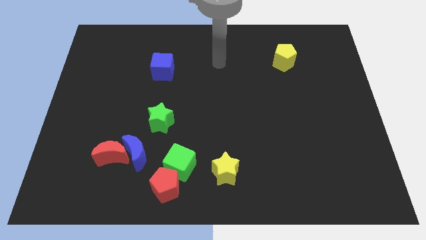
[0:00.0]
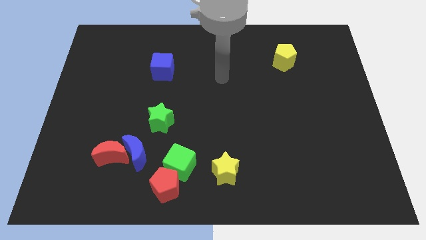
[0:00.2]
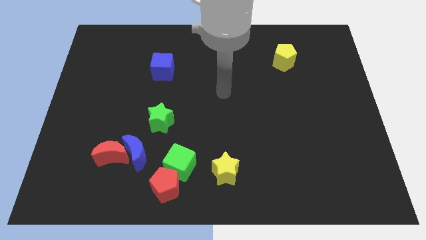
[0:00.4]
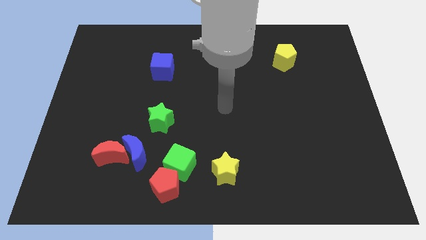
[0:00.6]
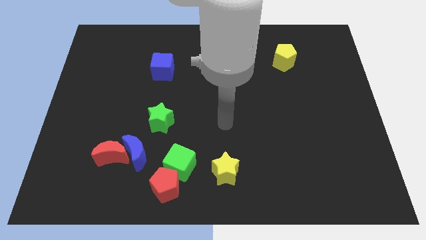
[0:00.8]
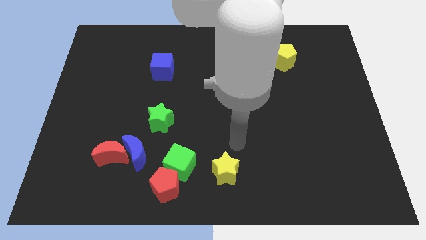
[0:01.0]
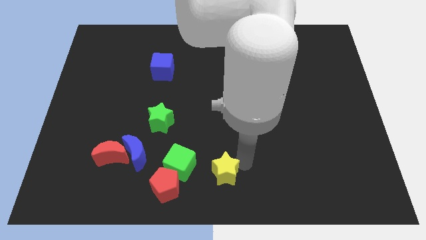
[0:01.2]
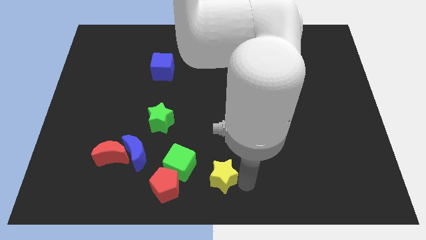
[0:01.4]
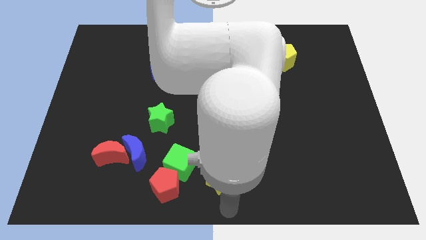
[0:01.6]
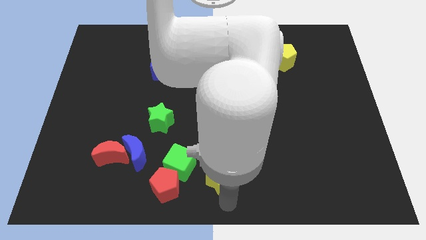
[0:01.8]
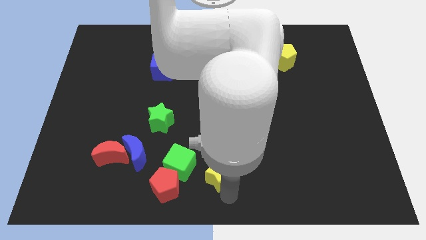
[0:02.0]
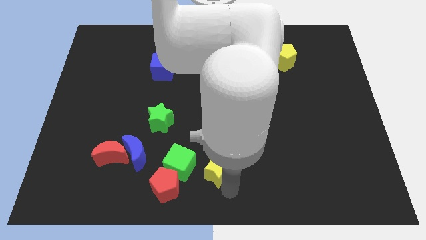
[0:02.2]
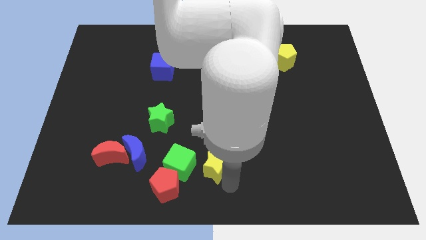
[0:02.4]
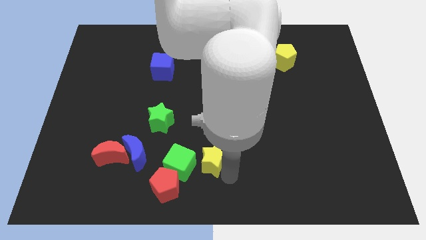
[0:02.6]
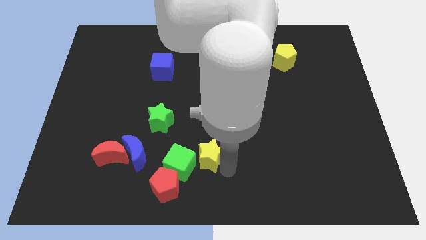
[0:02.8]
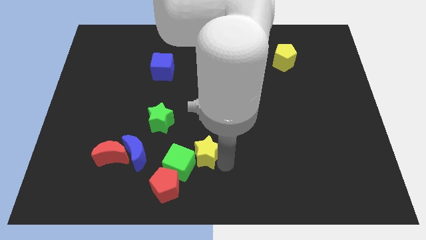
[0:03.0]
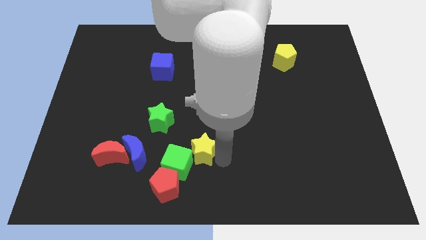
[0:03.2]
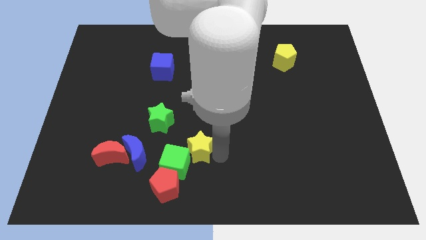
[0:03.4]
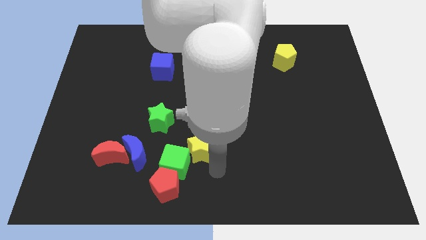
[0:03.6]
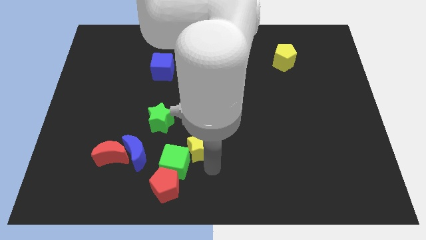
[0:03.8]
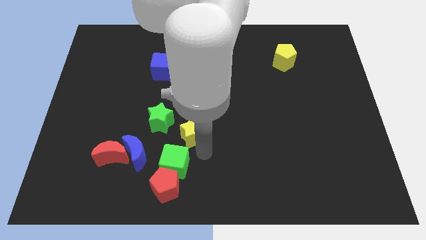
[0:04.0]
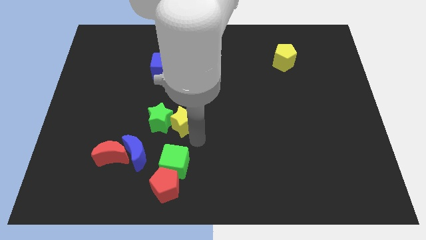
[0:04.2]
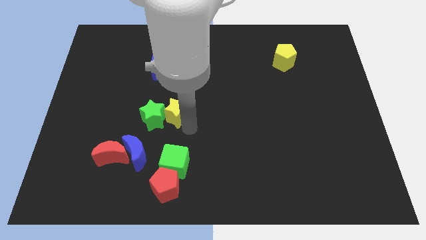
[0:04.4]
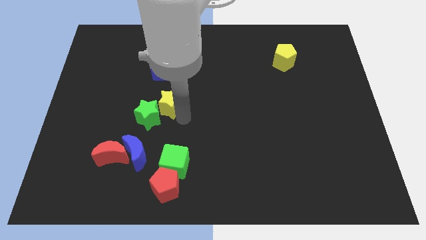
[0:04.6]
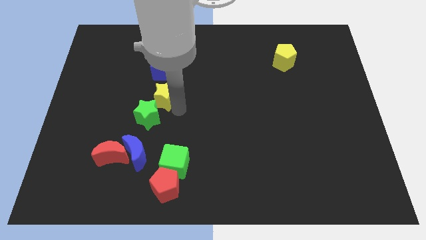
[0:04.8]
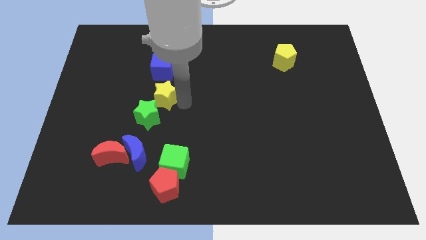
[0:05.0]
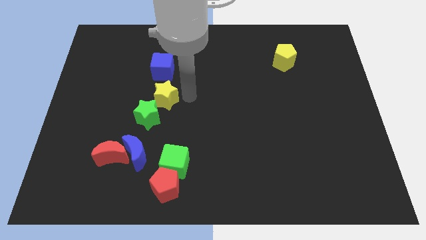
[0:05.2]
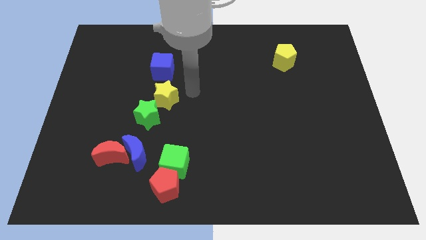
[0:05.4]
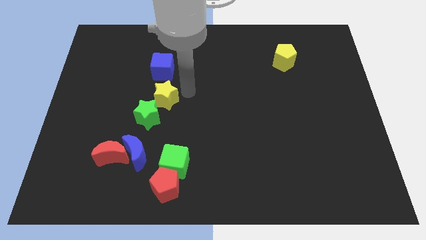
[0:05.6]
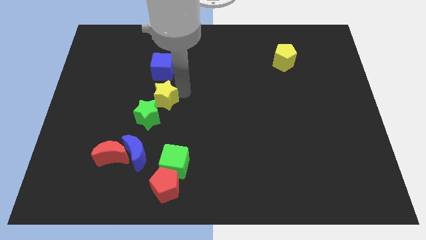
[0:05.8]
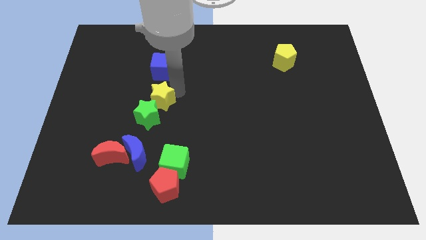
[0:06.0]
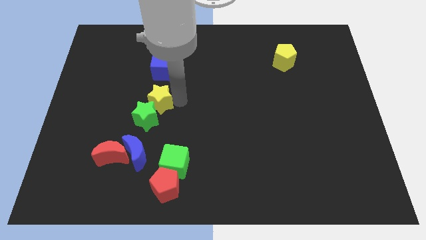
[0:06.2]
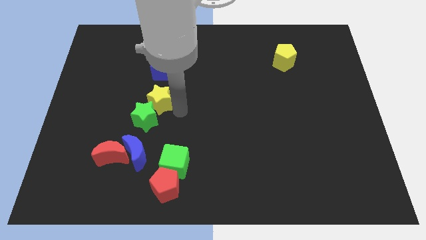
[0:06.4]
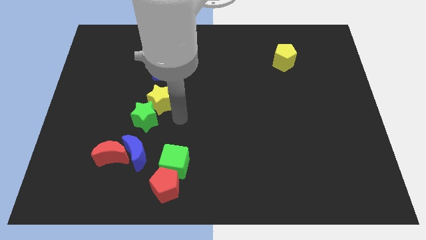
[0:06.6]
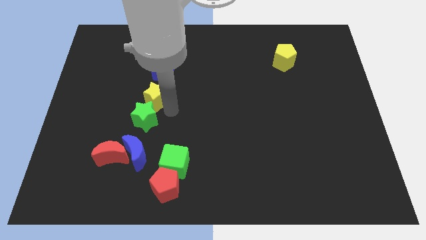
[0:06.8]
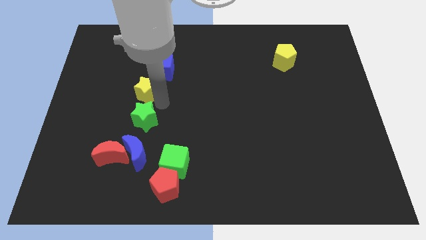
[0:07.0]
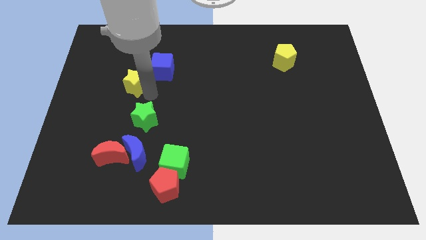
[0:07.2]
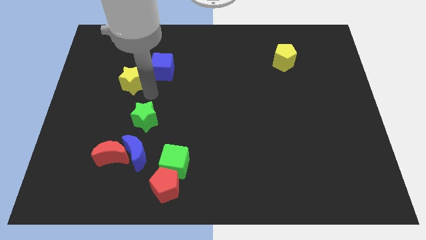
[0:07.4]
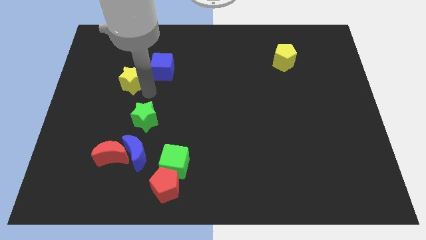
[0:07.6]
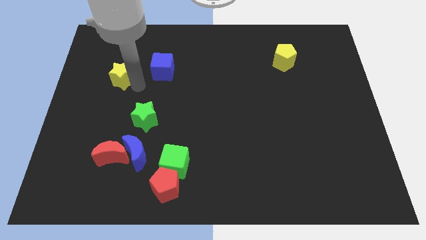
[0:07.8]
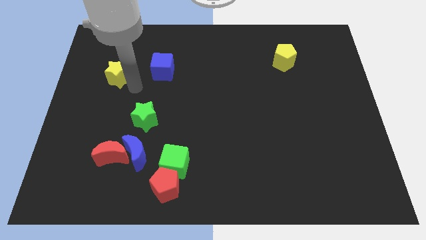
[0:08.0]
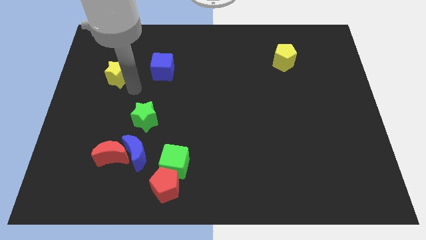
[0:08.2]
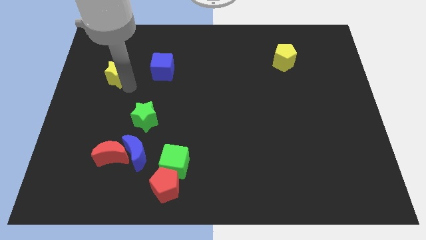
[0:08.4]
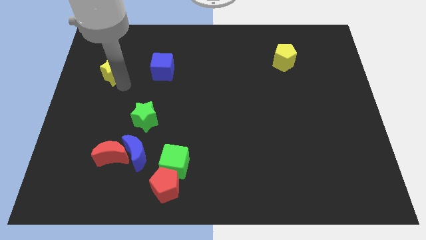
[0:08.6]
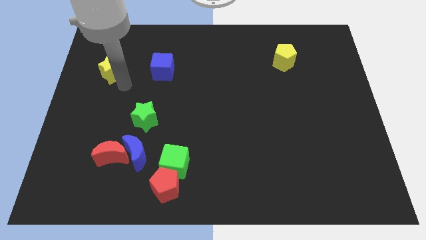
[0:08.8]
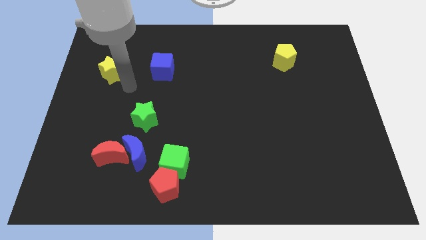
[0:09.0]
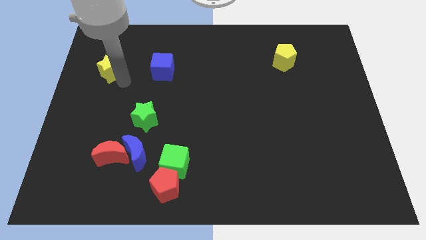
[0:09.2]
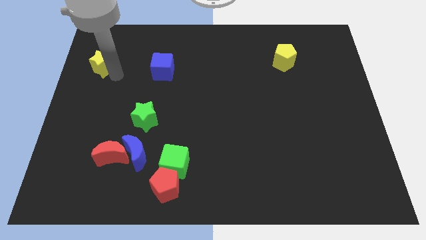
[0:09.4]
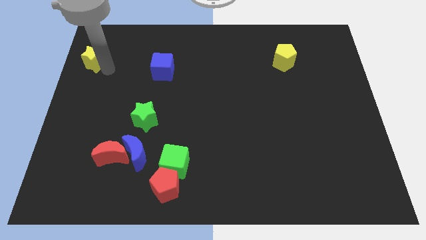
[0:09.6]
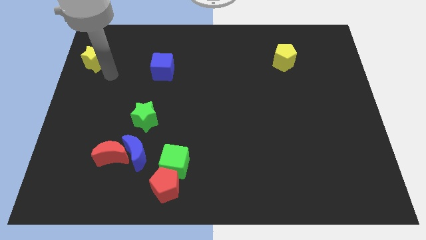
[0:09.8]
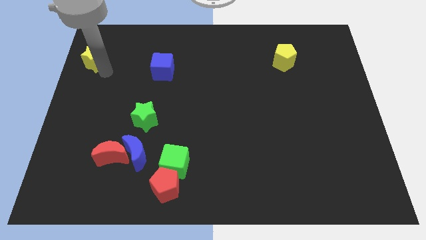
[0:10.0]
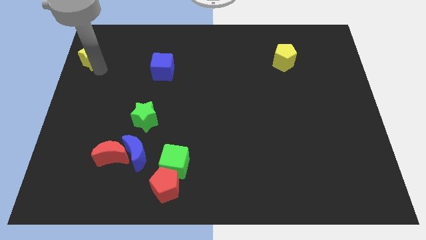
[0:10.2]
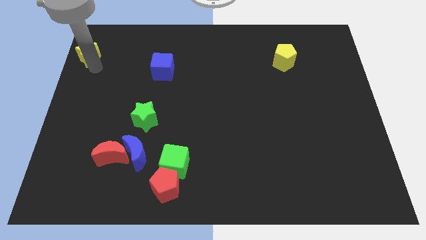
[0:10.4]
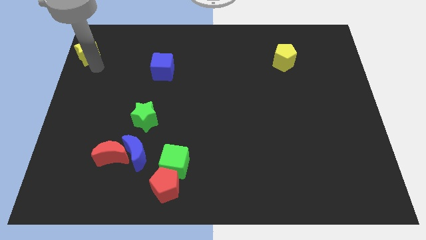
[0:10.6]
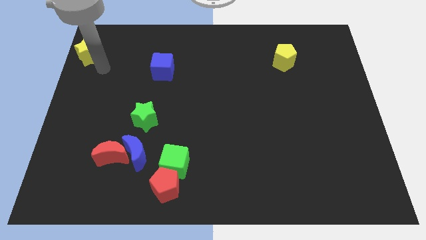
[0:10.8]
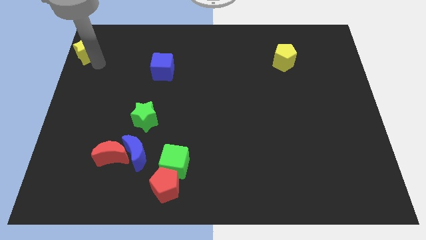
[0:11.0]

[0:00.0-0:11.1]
move the yellow star to the top left corner
